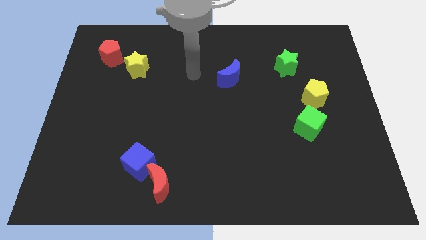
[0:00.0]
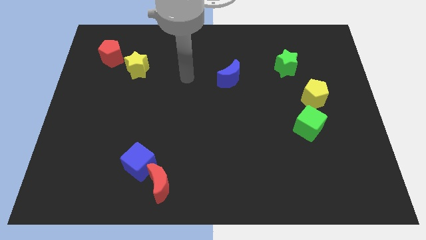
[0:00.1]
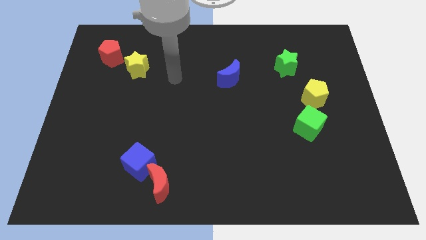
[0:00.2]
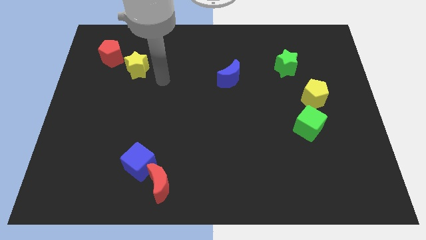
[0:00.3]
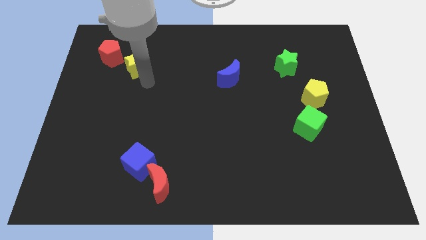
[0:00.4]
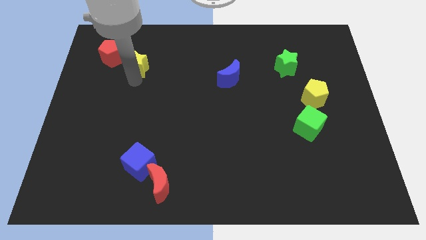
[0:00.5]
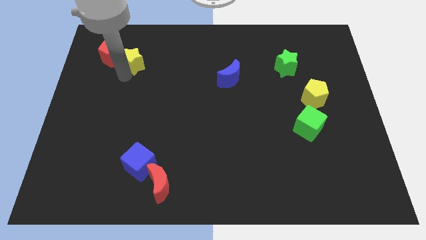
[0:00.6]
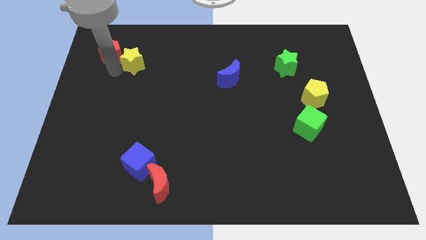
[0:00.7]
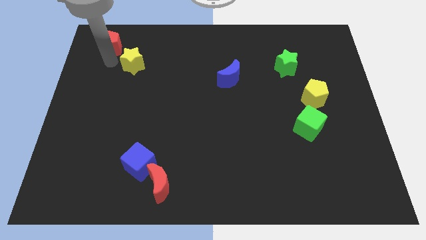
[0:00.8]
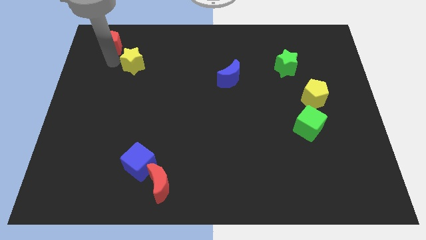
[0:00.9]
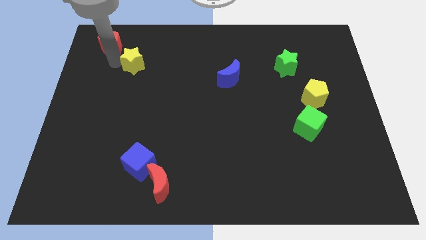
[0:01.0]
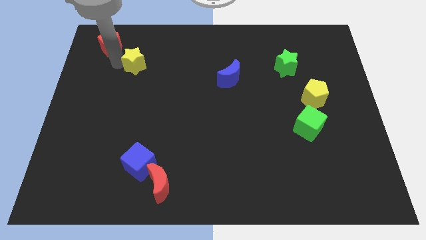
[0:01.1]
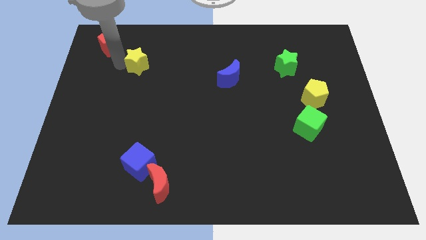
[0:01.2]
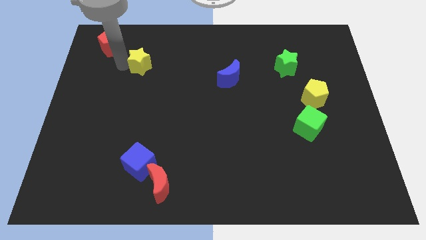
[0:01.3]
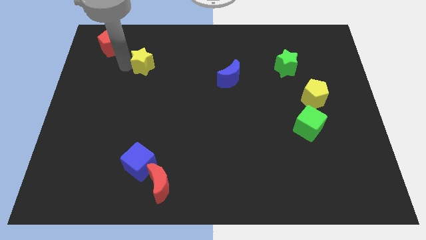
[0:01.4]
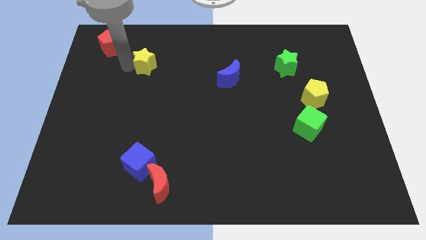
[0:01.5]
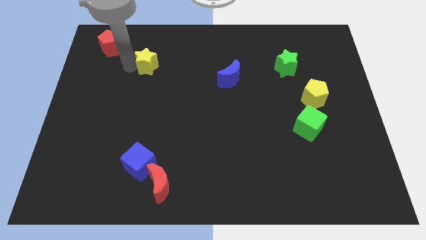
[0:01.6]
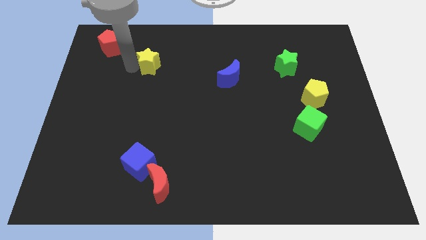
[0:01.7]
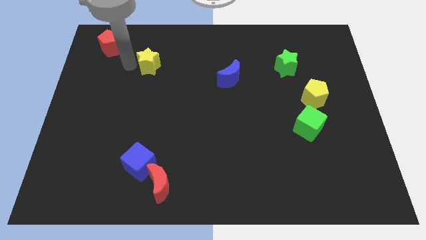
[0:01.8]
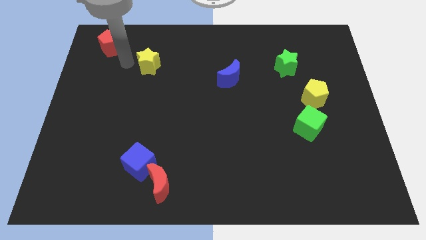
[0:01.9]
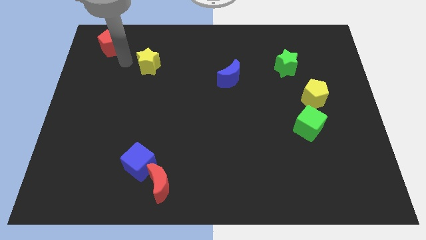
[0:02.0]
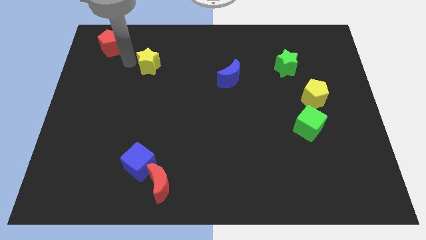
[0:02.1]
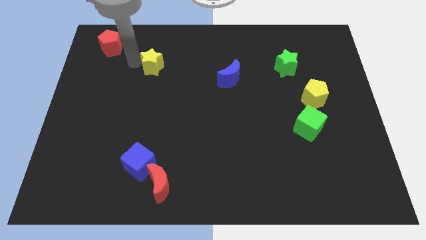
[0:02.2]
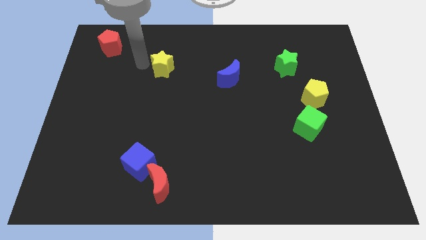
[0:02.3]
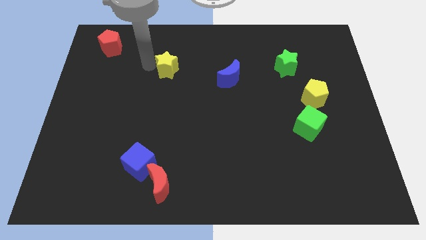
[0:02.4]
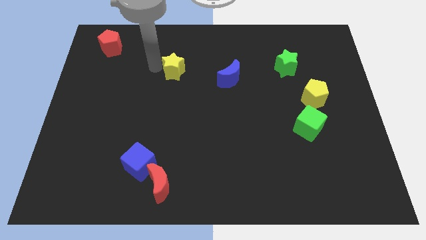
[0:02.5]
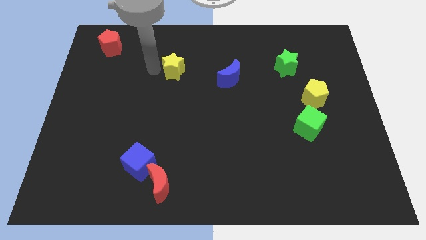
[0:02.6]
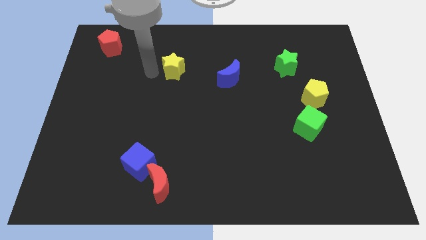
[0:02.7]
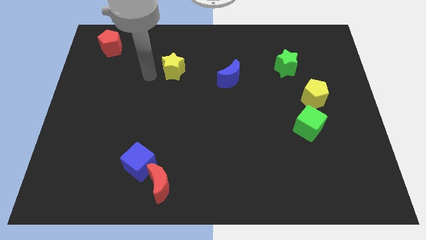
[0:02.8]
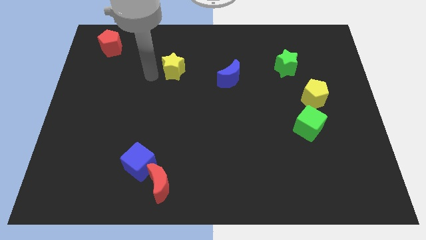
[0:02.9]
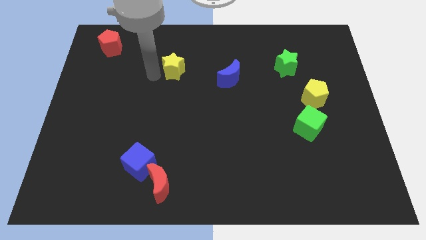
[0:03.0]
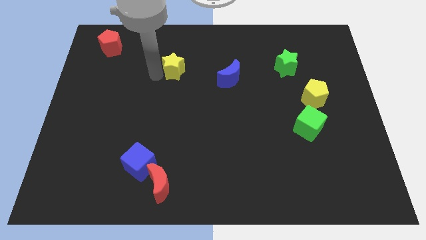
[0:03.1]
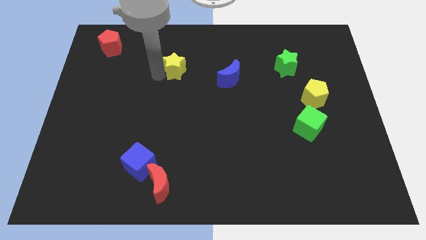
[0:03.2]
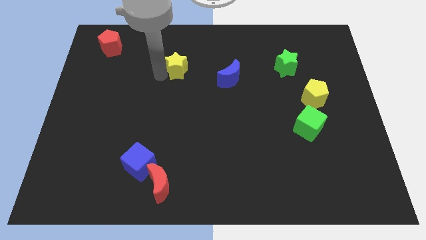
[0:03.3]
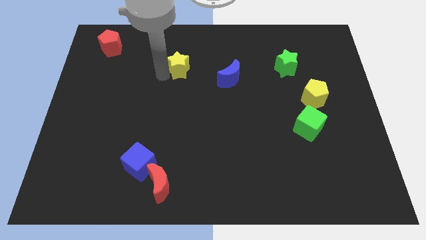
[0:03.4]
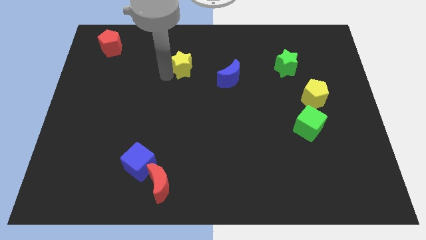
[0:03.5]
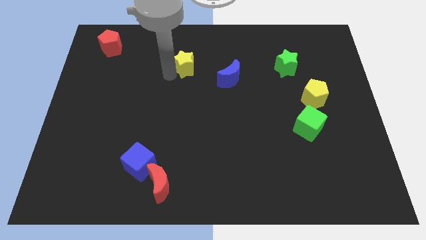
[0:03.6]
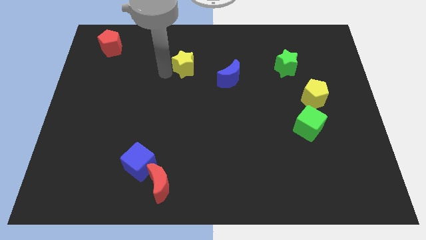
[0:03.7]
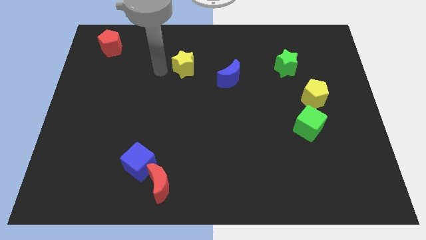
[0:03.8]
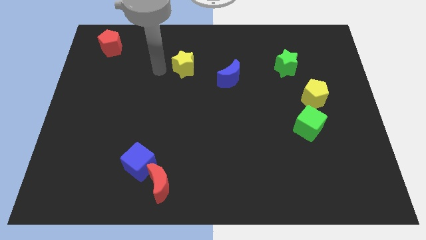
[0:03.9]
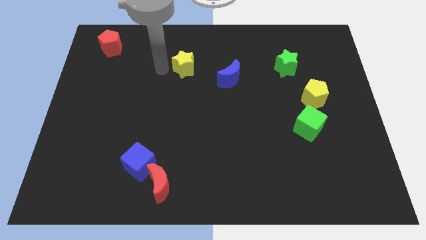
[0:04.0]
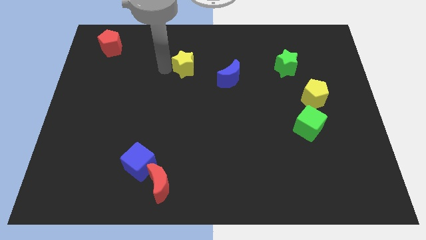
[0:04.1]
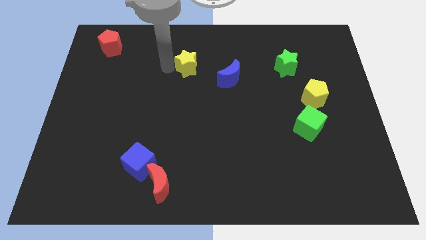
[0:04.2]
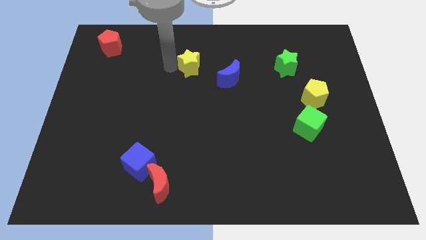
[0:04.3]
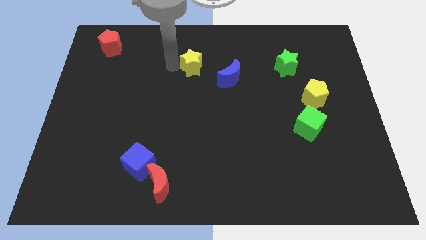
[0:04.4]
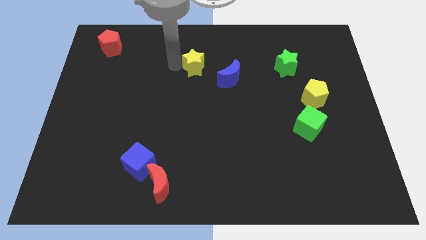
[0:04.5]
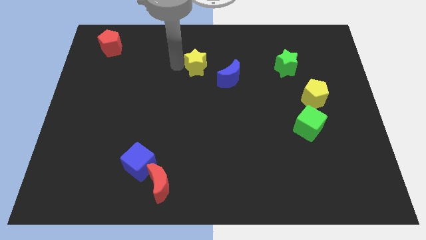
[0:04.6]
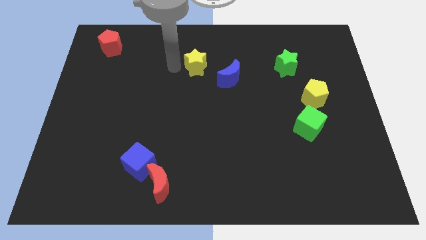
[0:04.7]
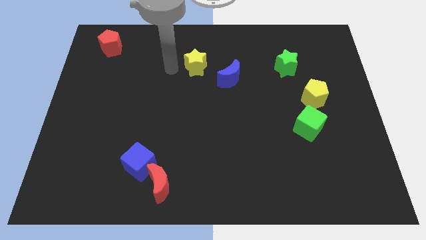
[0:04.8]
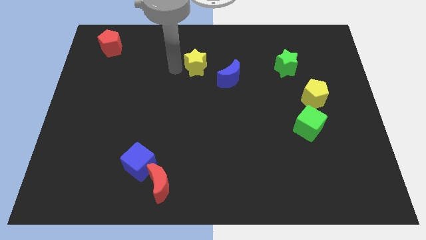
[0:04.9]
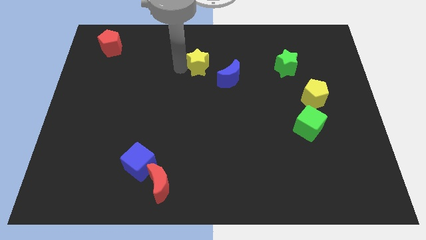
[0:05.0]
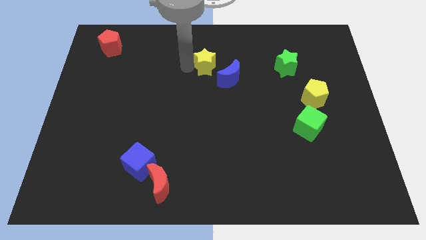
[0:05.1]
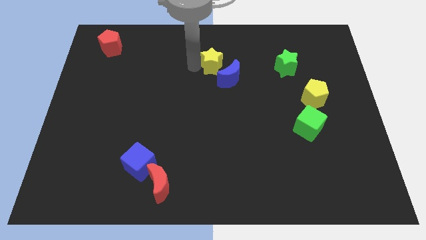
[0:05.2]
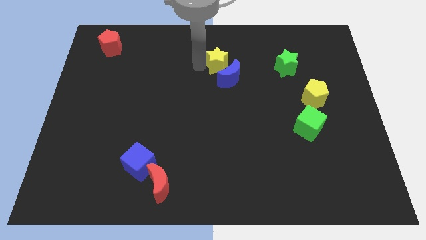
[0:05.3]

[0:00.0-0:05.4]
push the yellow star right

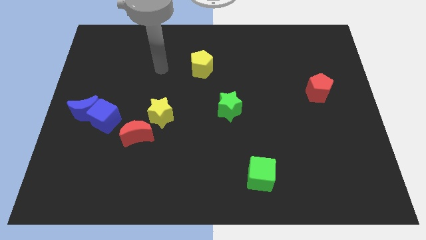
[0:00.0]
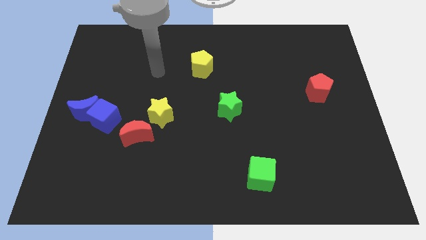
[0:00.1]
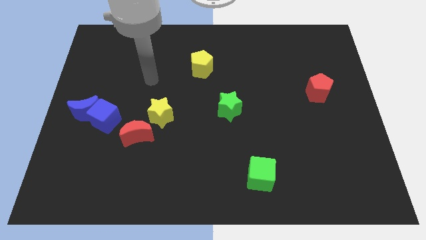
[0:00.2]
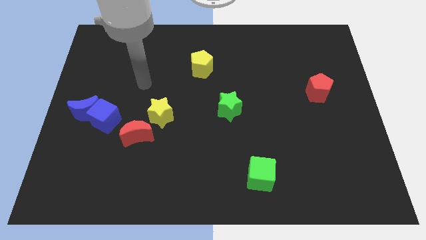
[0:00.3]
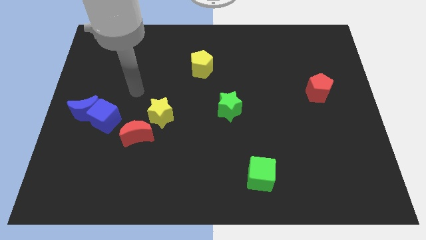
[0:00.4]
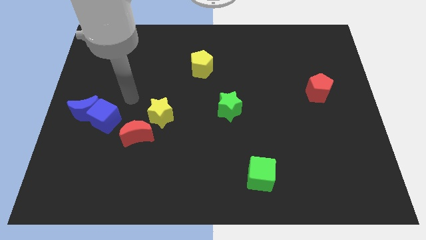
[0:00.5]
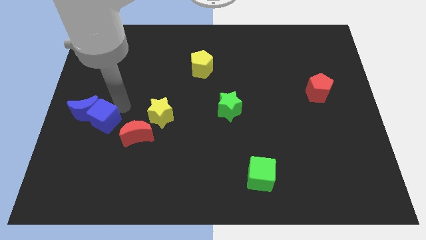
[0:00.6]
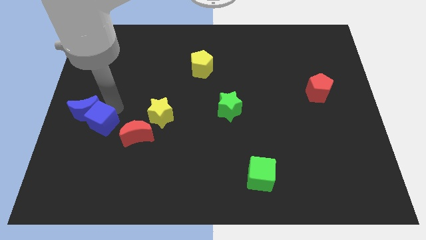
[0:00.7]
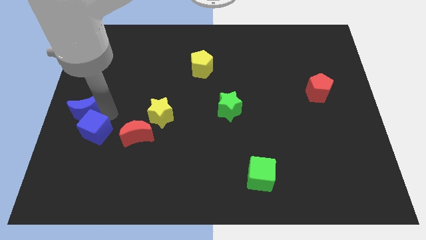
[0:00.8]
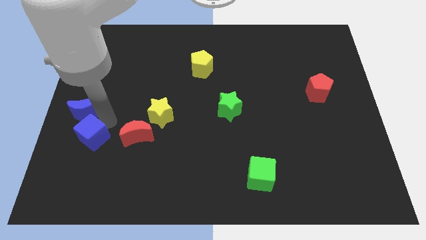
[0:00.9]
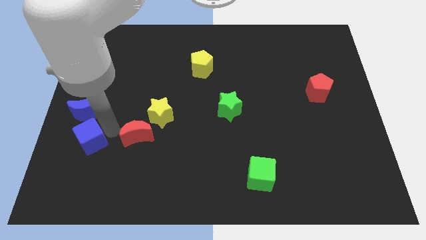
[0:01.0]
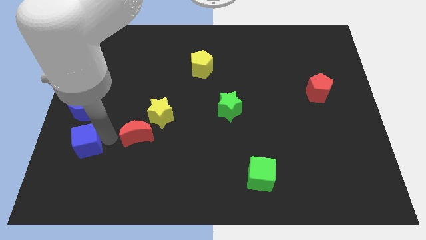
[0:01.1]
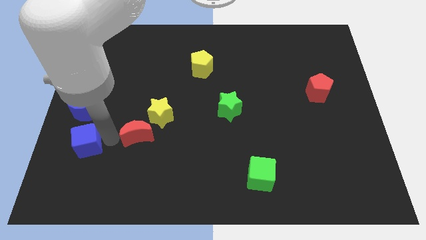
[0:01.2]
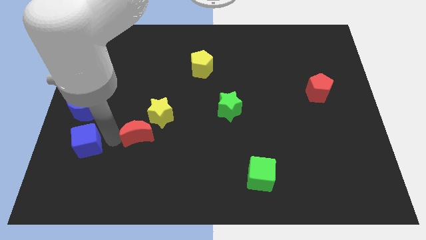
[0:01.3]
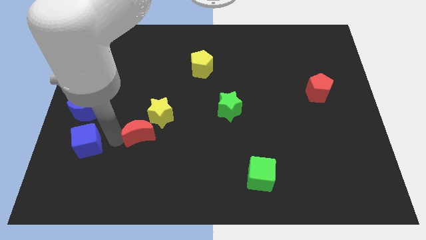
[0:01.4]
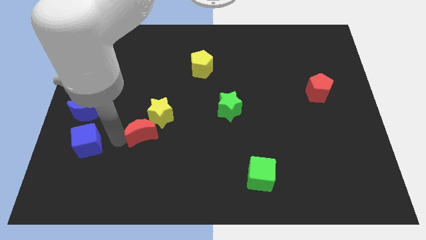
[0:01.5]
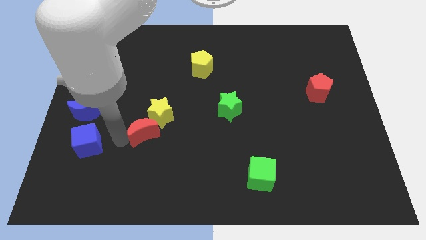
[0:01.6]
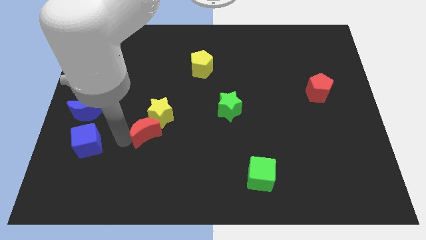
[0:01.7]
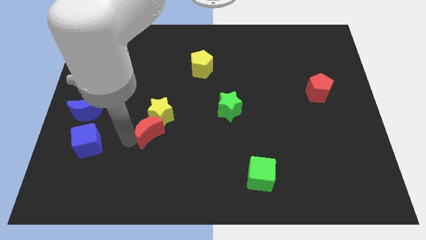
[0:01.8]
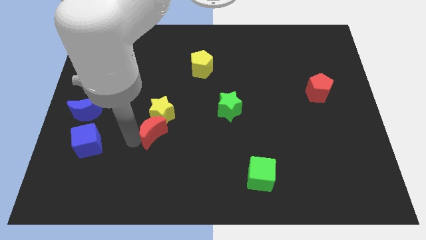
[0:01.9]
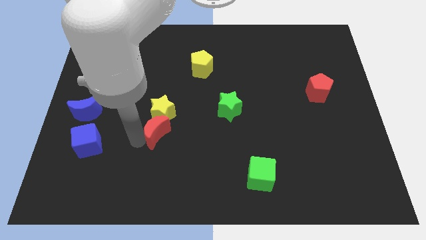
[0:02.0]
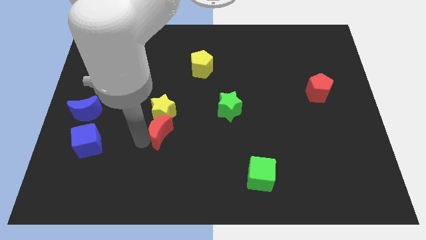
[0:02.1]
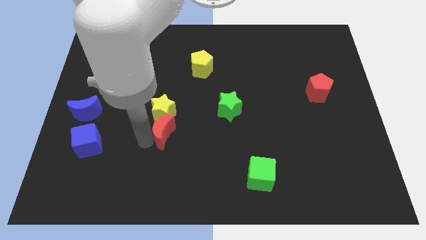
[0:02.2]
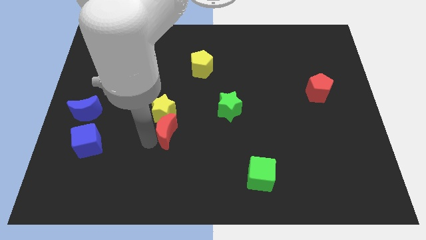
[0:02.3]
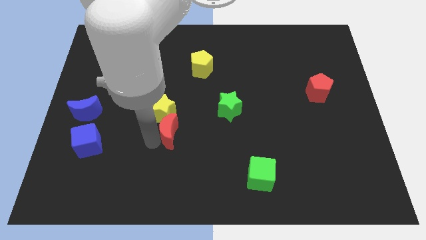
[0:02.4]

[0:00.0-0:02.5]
slide the red moon a little bit to the right

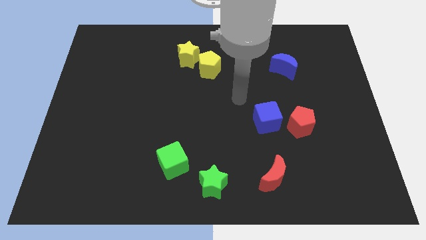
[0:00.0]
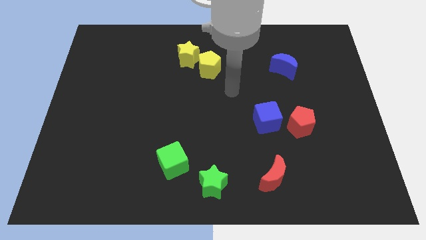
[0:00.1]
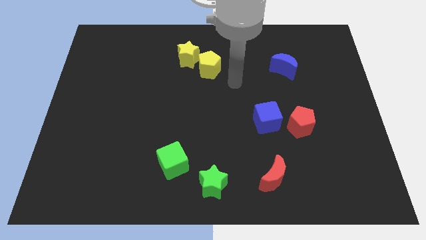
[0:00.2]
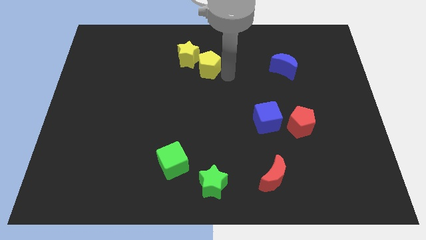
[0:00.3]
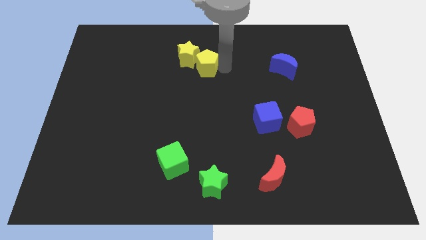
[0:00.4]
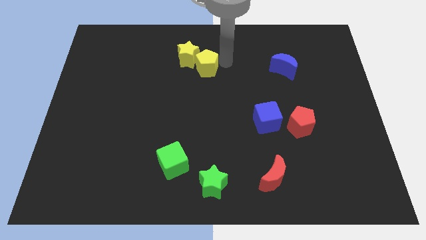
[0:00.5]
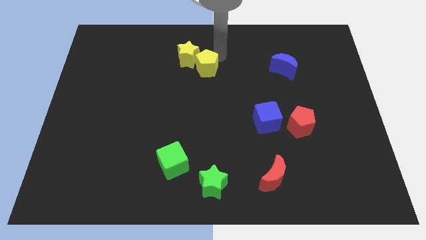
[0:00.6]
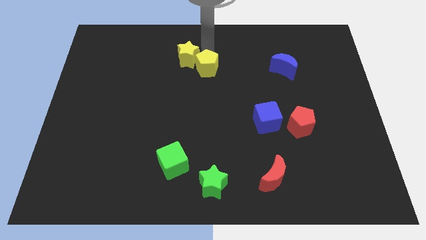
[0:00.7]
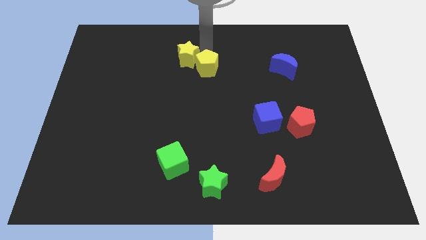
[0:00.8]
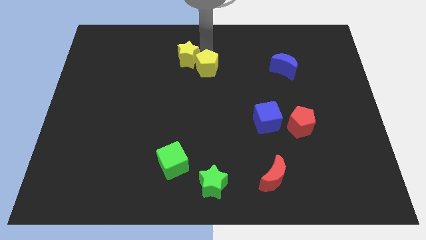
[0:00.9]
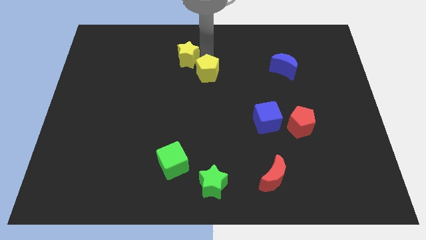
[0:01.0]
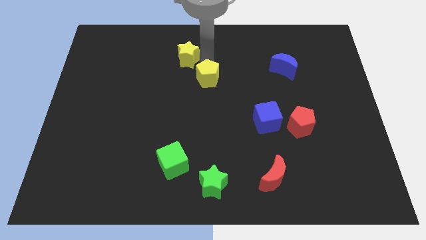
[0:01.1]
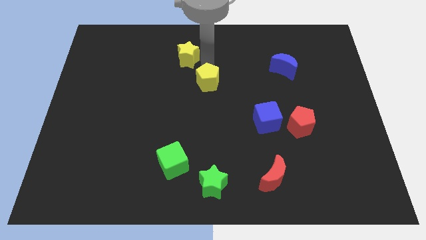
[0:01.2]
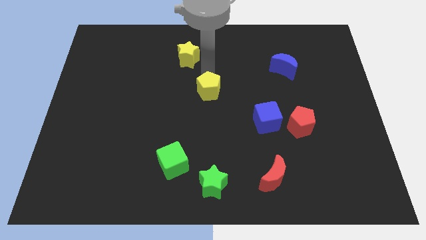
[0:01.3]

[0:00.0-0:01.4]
push the yellow pentagon a little downwards
